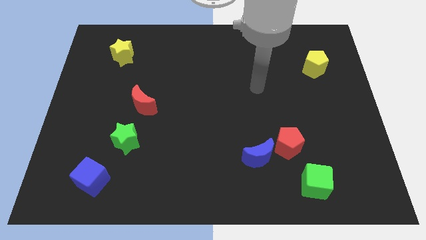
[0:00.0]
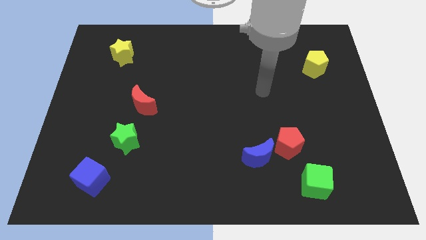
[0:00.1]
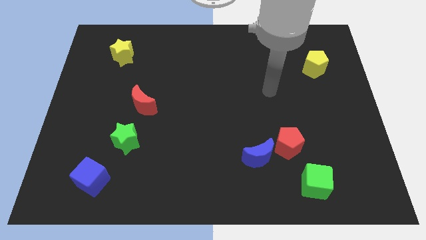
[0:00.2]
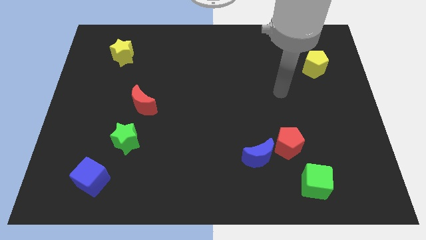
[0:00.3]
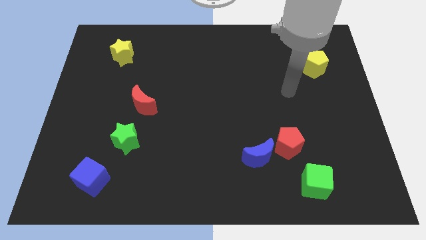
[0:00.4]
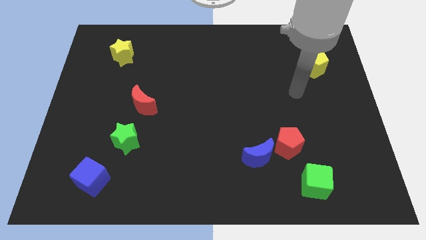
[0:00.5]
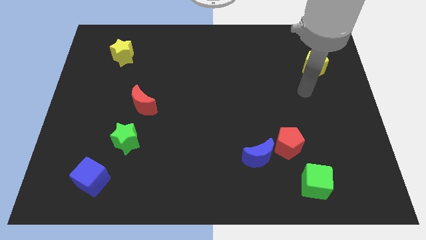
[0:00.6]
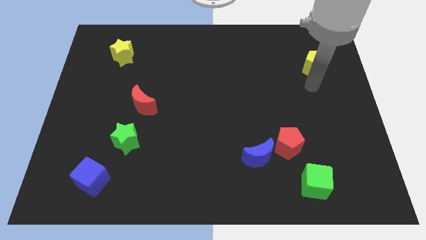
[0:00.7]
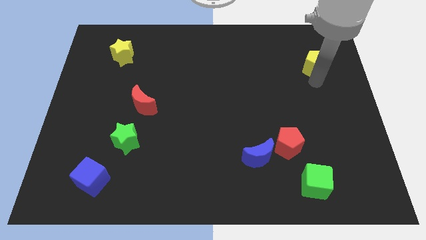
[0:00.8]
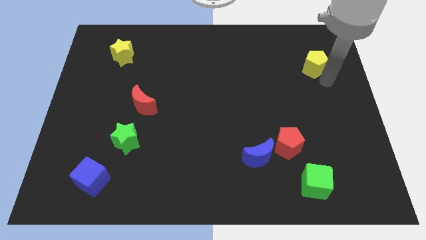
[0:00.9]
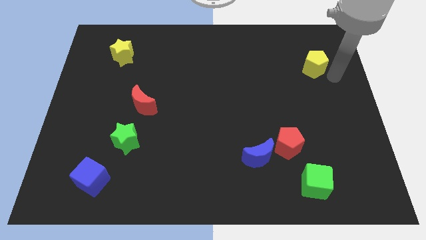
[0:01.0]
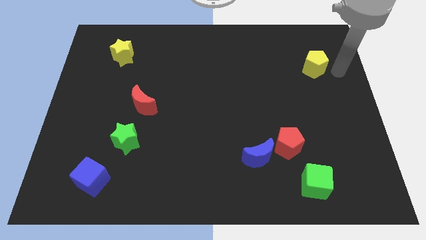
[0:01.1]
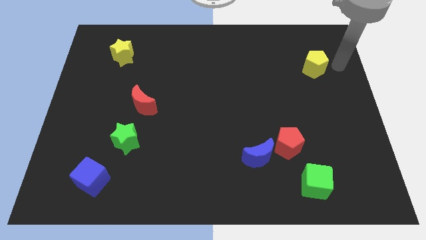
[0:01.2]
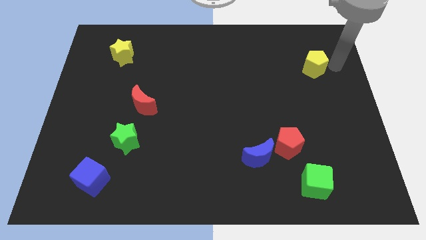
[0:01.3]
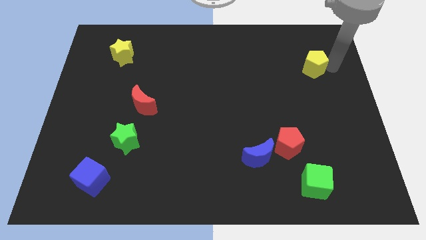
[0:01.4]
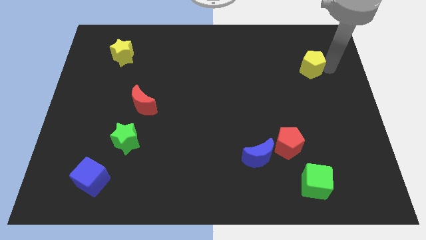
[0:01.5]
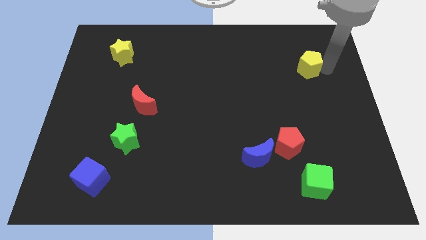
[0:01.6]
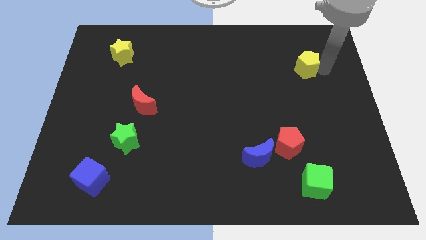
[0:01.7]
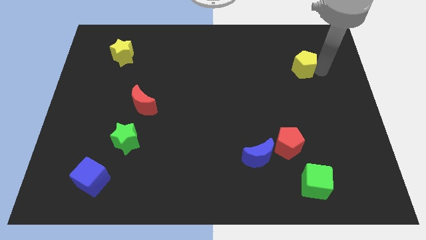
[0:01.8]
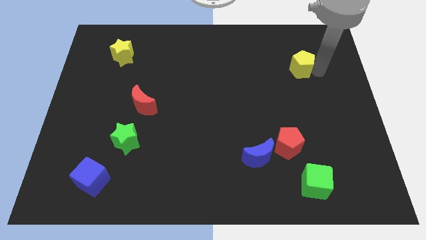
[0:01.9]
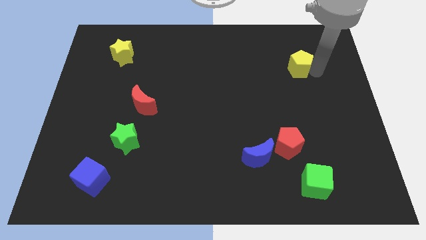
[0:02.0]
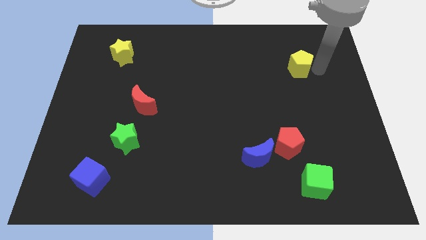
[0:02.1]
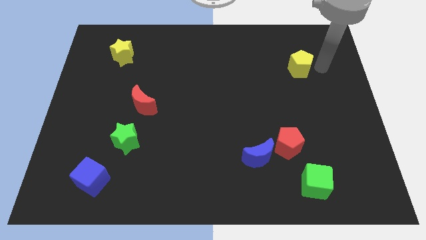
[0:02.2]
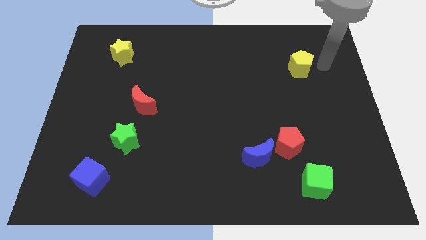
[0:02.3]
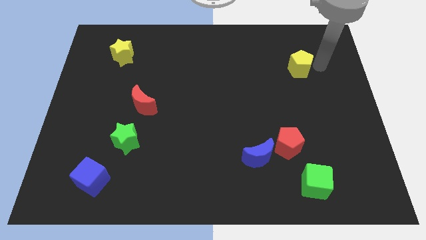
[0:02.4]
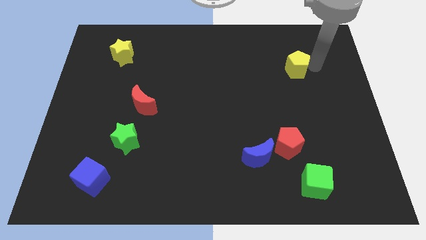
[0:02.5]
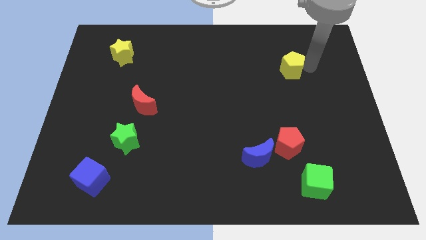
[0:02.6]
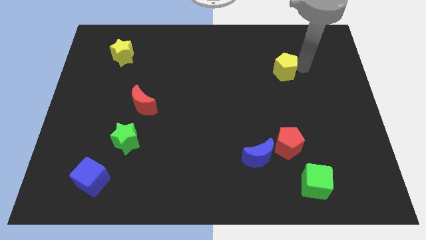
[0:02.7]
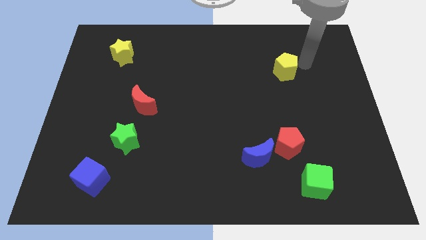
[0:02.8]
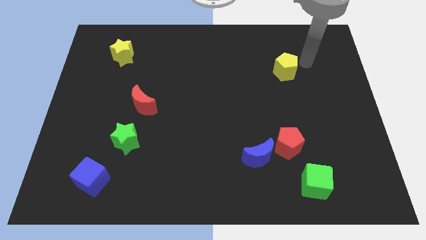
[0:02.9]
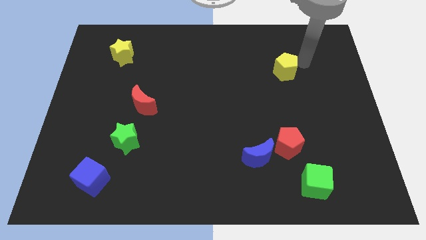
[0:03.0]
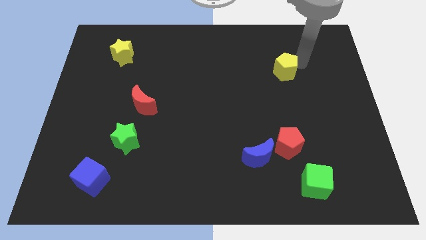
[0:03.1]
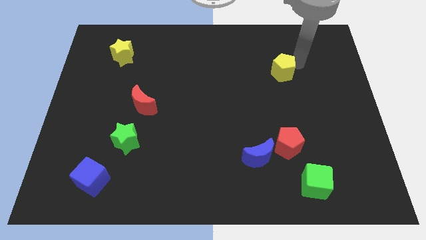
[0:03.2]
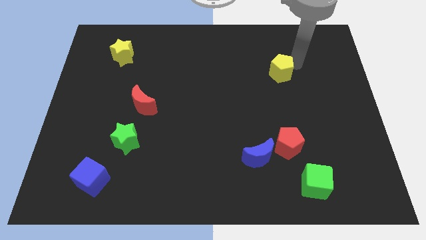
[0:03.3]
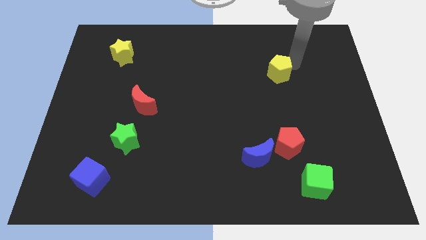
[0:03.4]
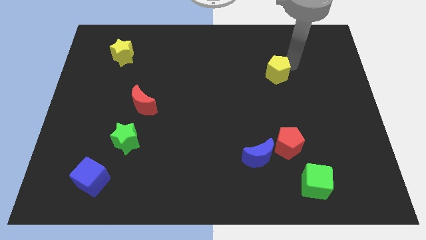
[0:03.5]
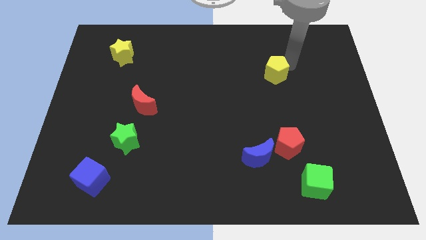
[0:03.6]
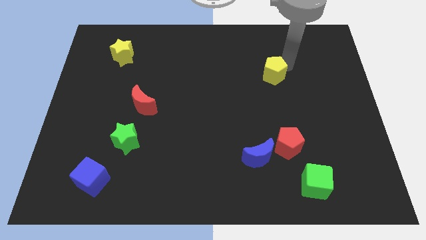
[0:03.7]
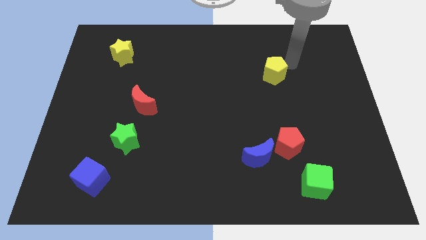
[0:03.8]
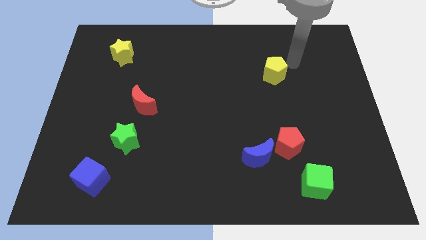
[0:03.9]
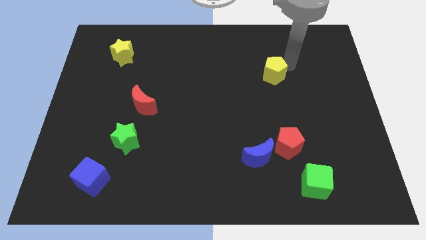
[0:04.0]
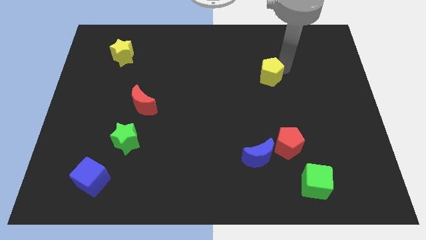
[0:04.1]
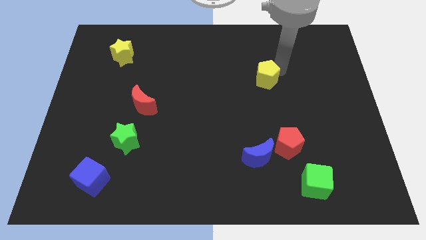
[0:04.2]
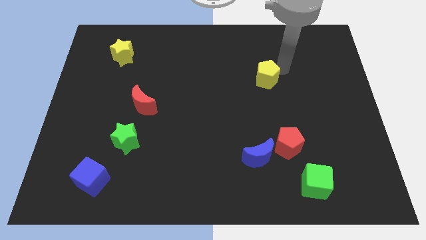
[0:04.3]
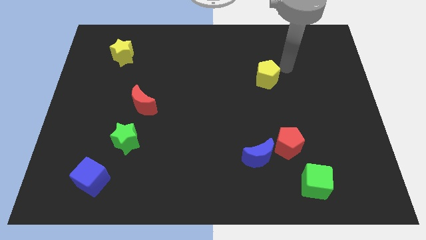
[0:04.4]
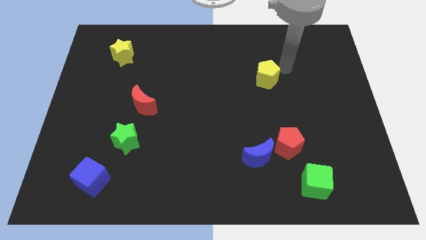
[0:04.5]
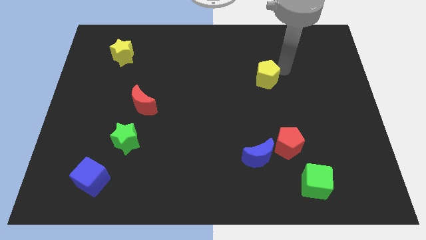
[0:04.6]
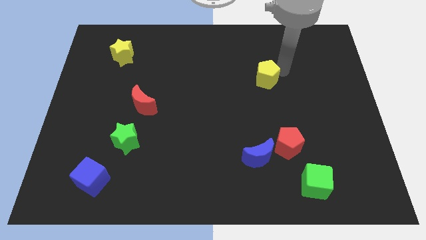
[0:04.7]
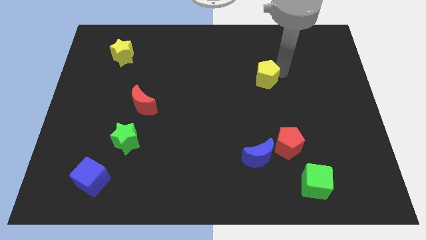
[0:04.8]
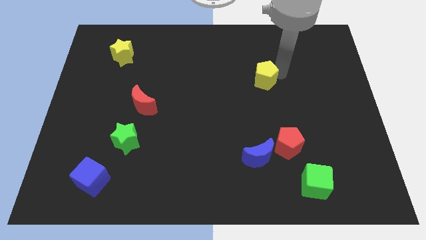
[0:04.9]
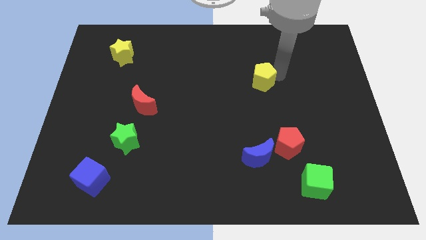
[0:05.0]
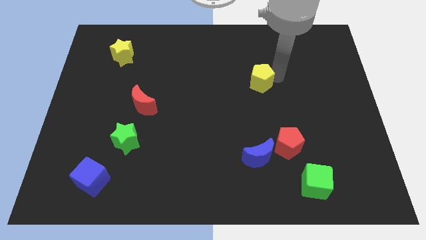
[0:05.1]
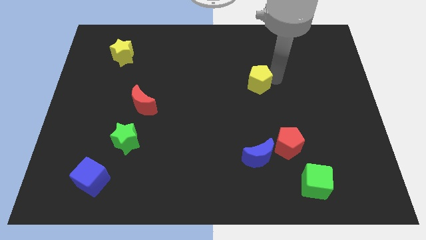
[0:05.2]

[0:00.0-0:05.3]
move the yellow pentagon to the middle of the board

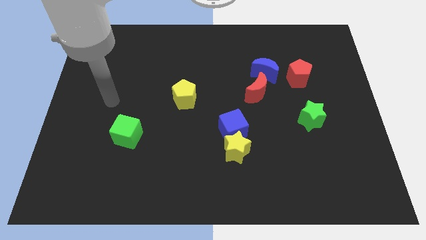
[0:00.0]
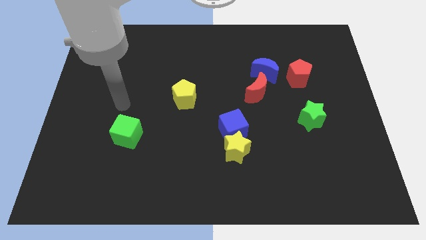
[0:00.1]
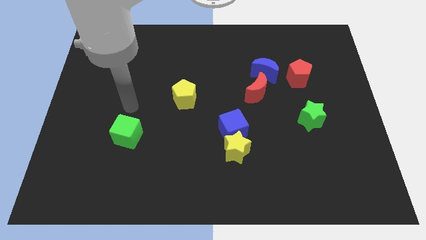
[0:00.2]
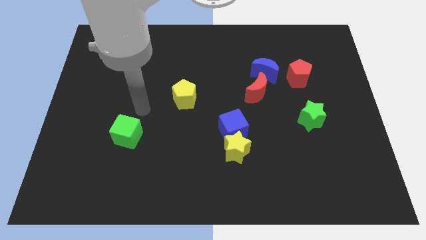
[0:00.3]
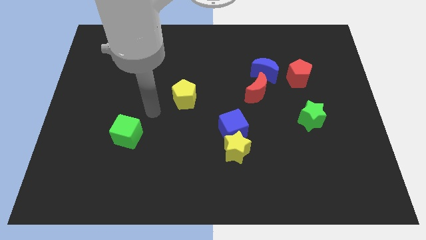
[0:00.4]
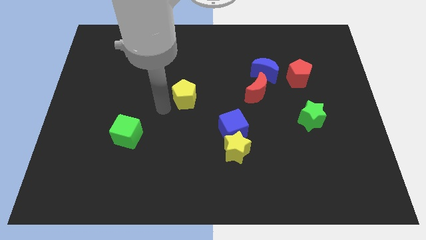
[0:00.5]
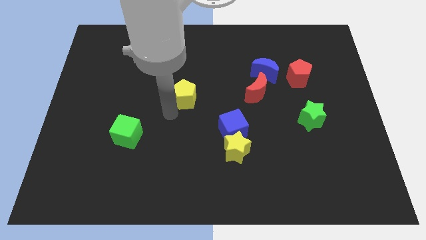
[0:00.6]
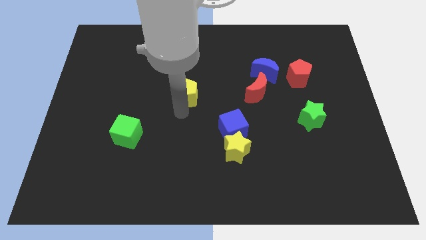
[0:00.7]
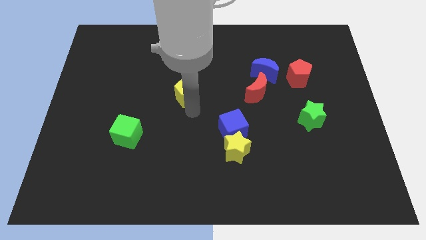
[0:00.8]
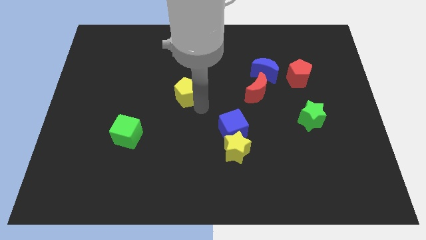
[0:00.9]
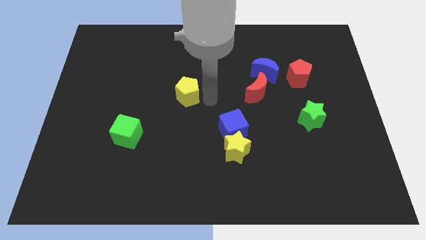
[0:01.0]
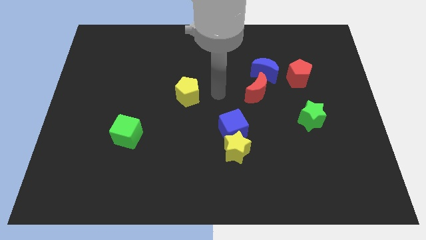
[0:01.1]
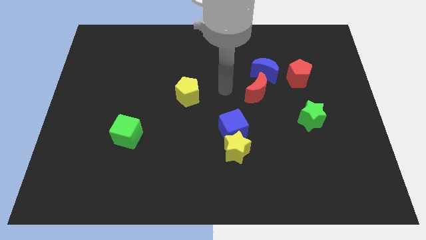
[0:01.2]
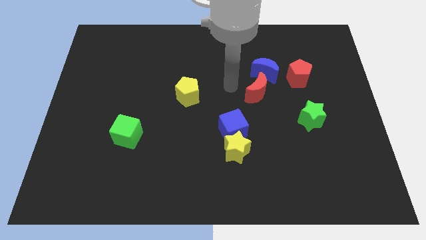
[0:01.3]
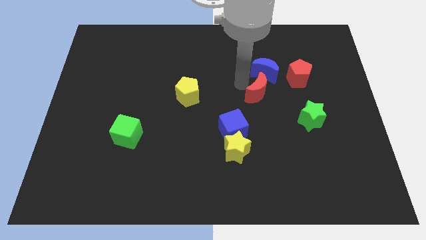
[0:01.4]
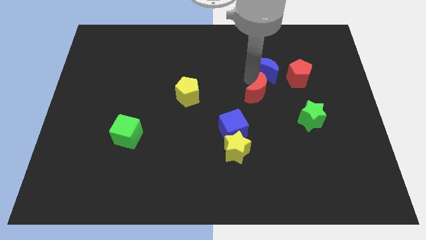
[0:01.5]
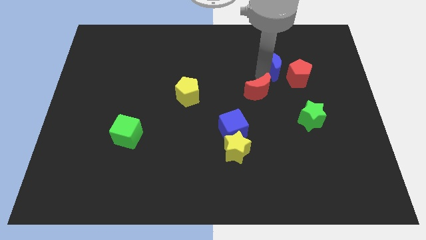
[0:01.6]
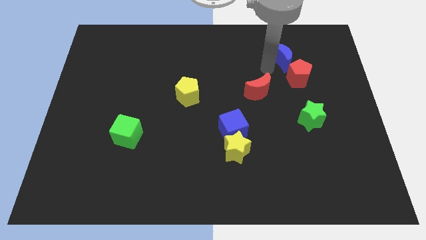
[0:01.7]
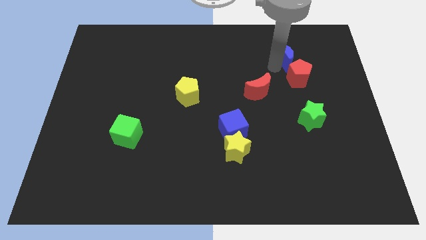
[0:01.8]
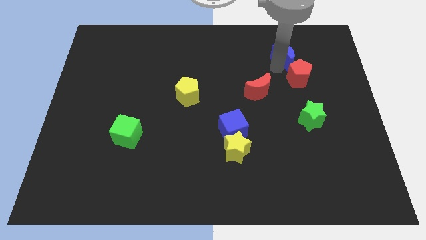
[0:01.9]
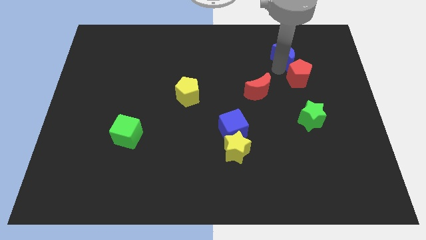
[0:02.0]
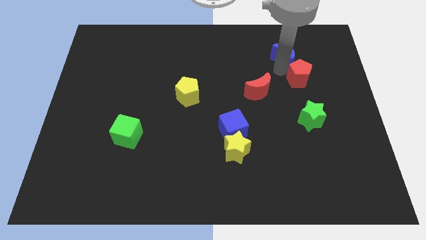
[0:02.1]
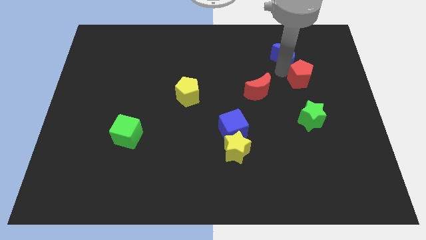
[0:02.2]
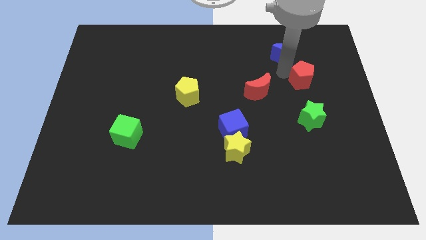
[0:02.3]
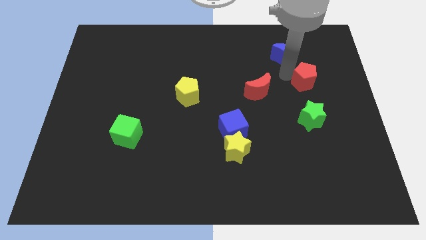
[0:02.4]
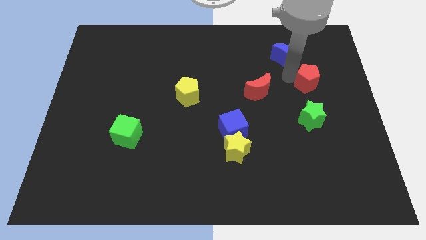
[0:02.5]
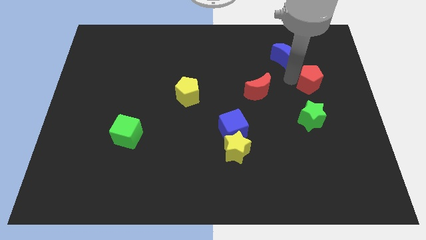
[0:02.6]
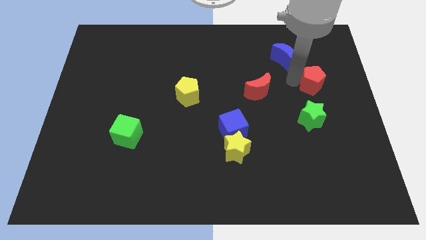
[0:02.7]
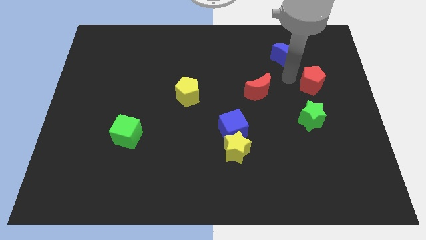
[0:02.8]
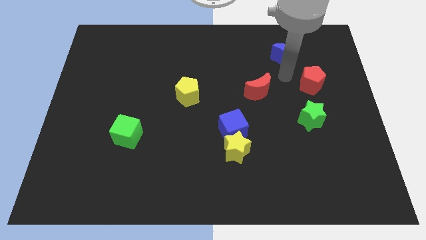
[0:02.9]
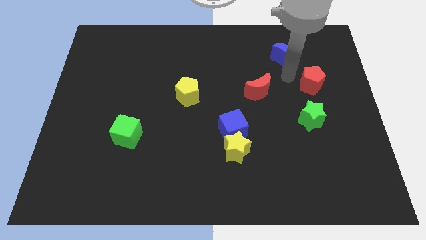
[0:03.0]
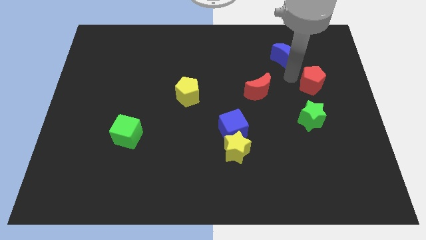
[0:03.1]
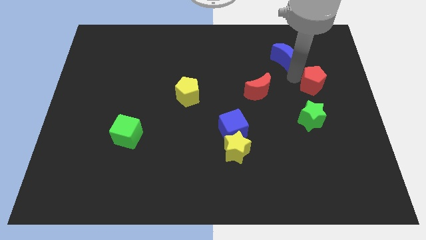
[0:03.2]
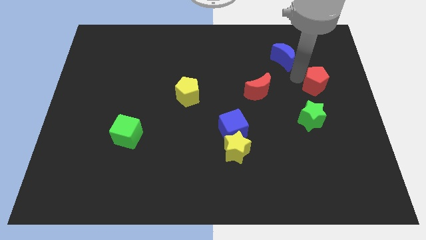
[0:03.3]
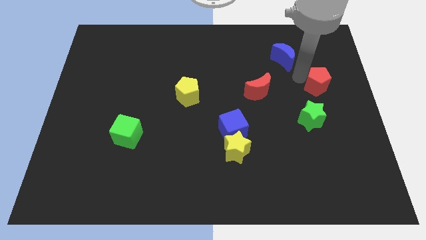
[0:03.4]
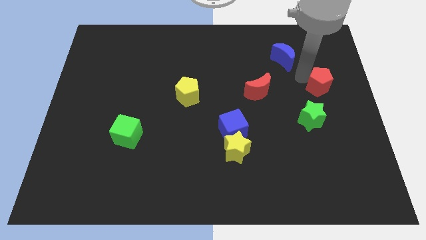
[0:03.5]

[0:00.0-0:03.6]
push the red pentagon to the center right
